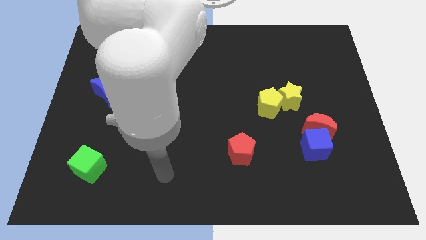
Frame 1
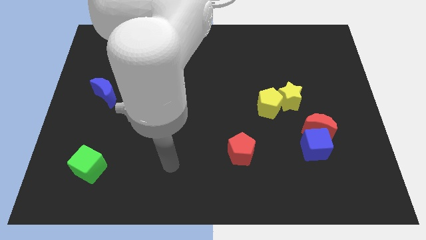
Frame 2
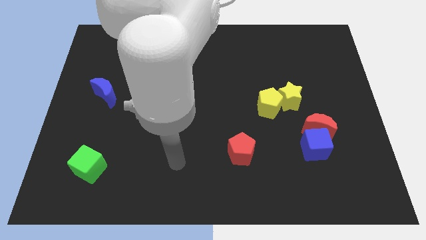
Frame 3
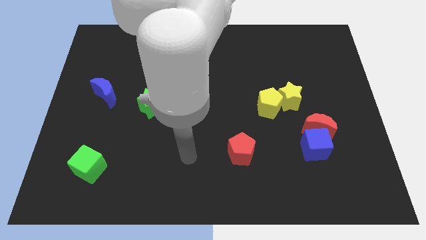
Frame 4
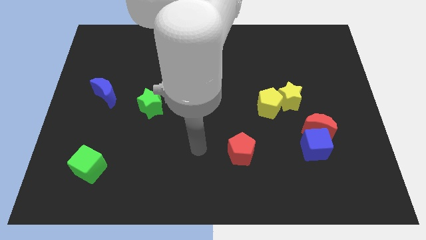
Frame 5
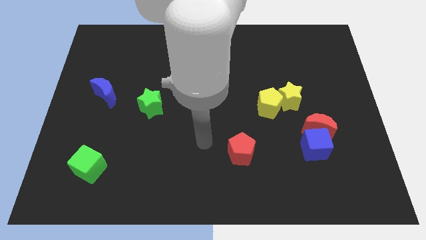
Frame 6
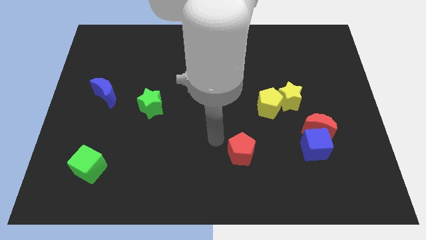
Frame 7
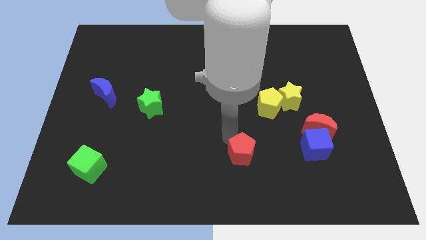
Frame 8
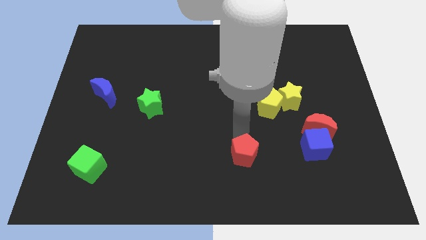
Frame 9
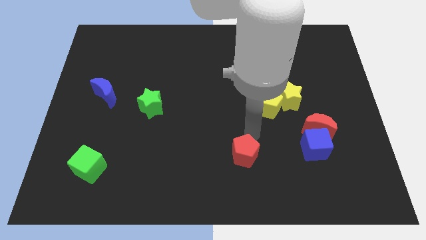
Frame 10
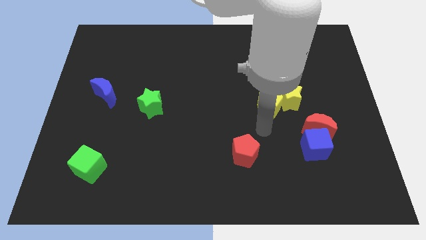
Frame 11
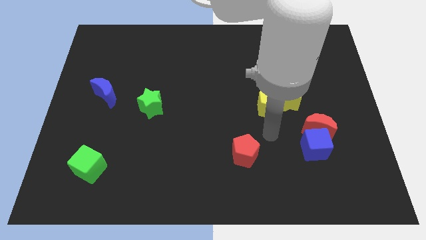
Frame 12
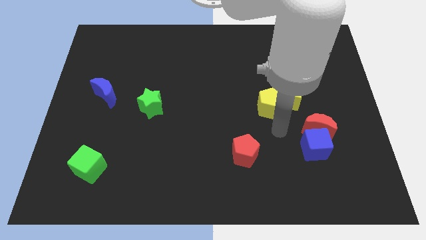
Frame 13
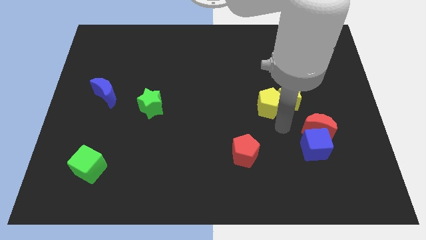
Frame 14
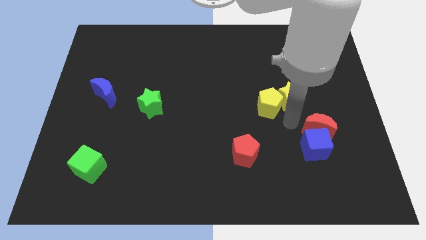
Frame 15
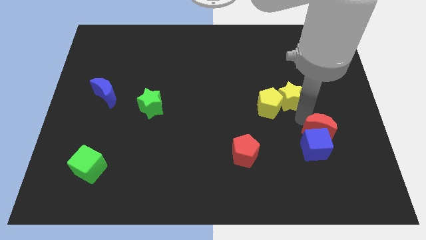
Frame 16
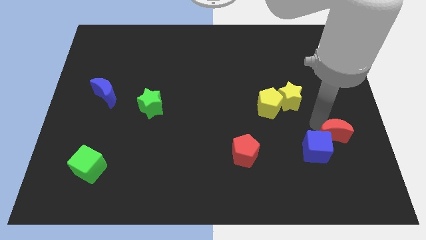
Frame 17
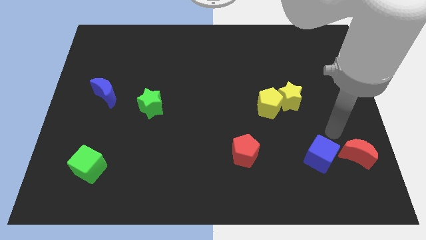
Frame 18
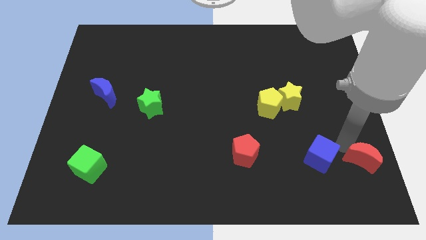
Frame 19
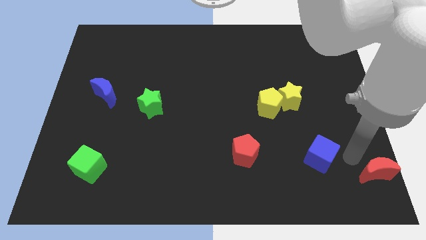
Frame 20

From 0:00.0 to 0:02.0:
move the blue cube away from the red moon

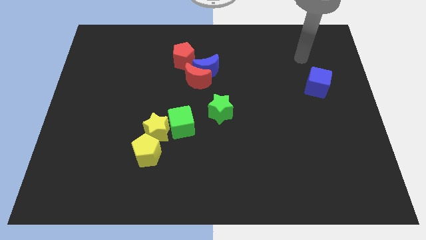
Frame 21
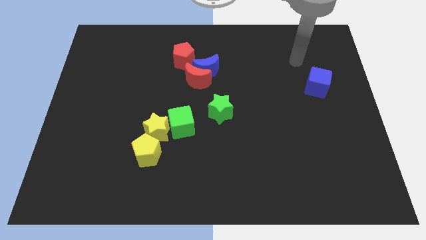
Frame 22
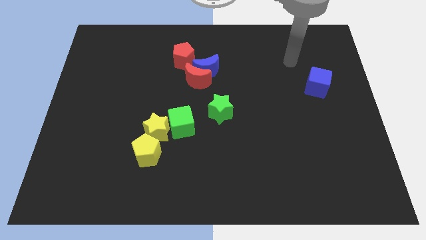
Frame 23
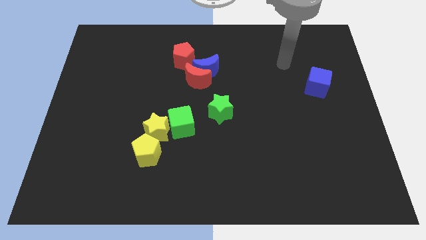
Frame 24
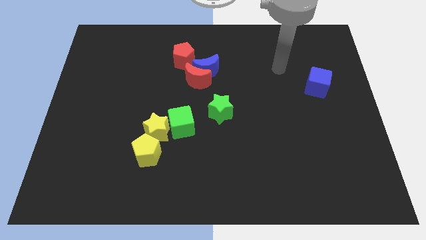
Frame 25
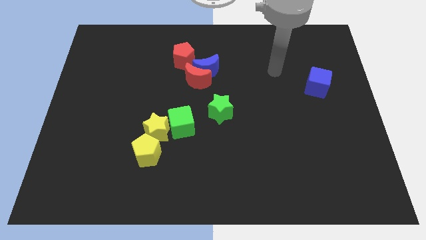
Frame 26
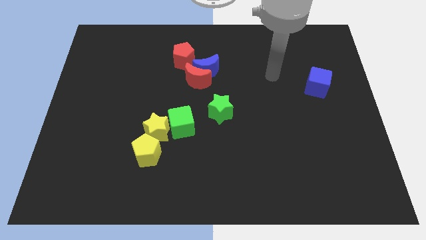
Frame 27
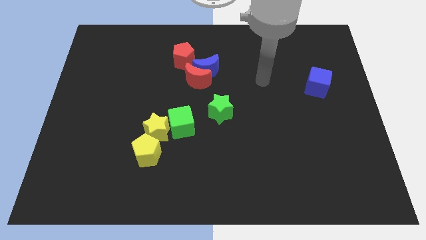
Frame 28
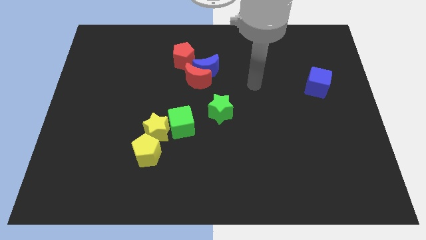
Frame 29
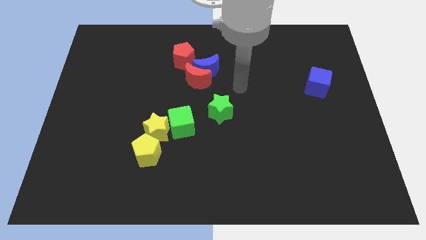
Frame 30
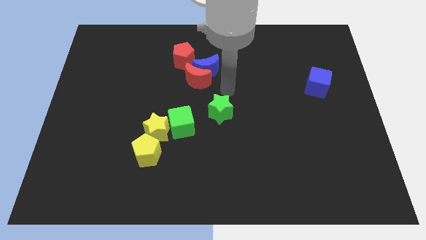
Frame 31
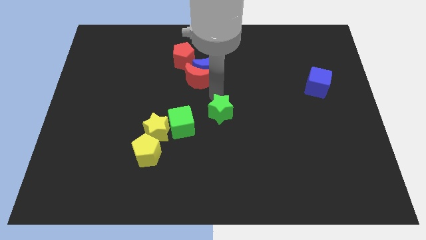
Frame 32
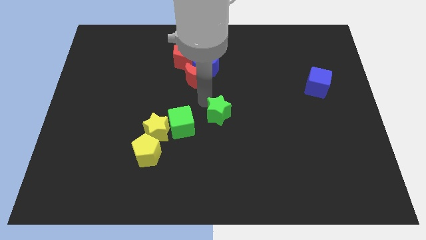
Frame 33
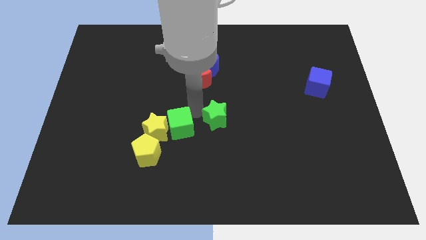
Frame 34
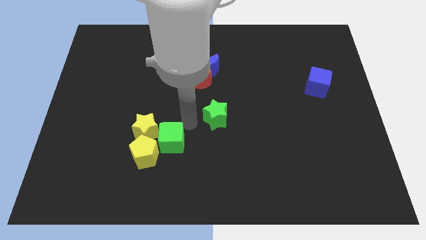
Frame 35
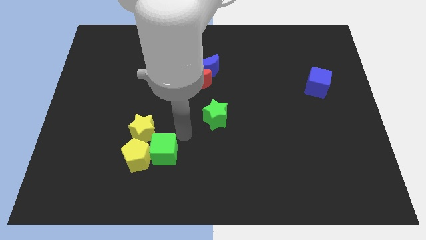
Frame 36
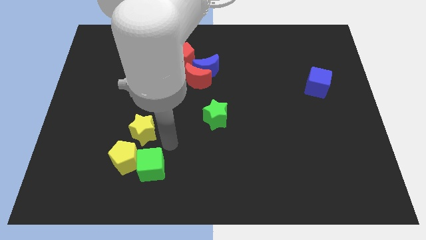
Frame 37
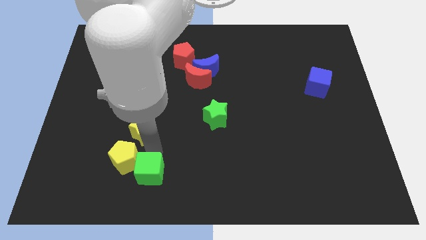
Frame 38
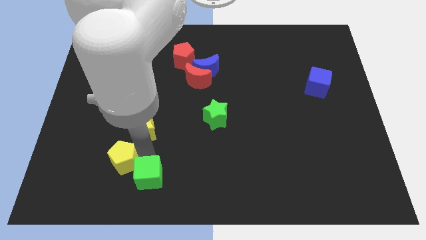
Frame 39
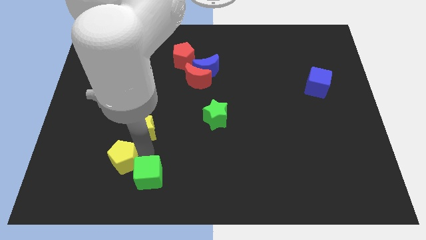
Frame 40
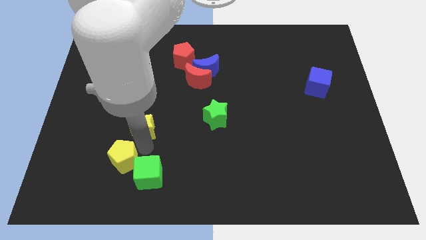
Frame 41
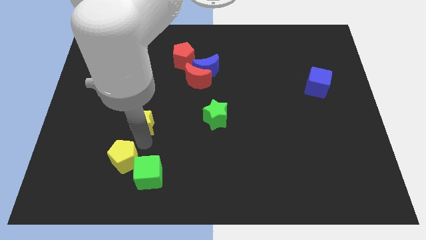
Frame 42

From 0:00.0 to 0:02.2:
pull the yellow star apart from the yellow pentagon and green cube

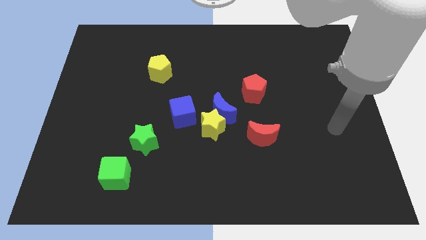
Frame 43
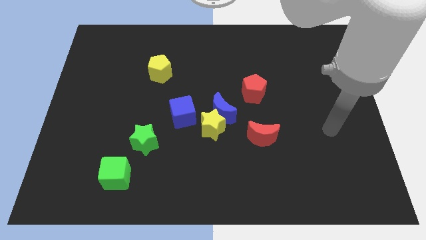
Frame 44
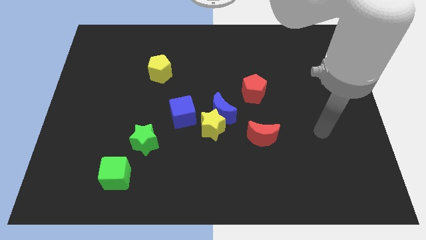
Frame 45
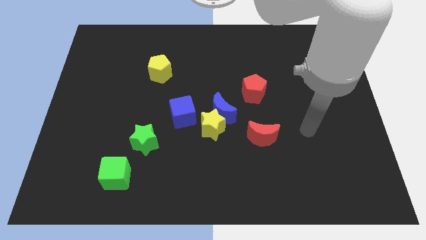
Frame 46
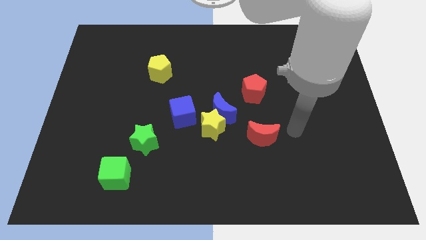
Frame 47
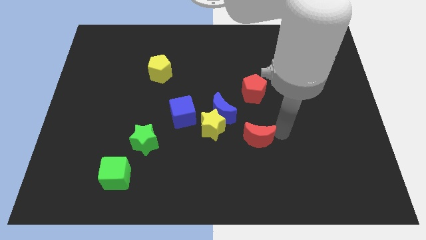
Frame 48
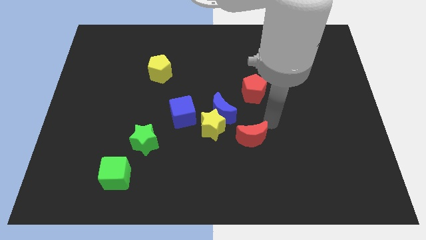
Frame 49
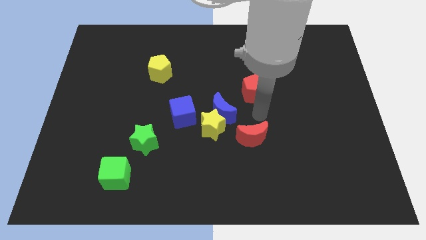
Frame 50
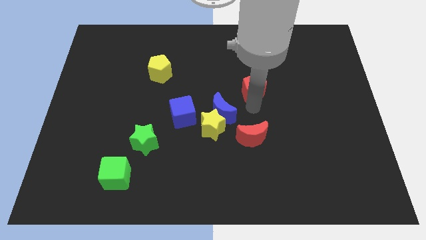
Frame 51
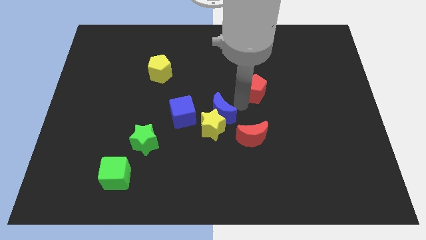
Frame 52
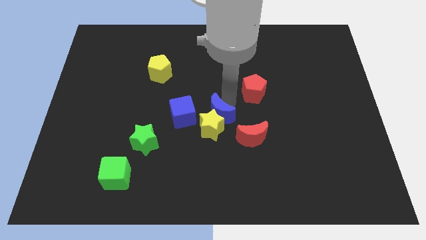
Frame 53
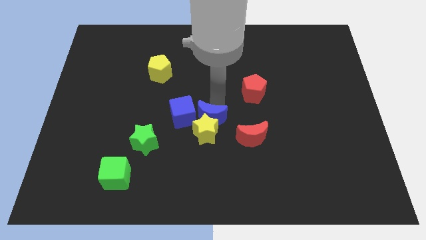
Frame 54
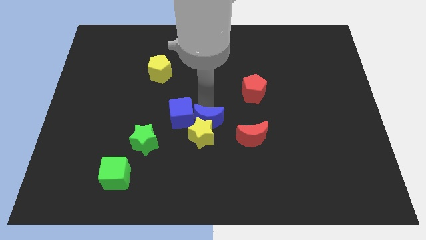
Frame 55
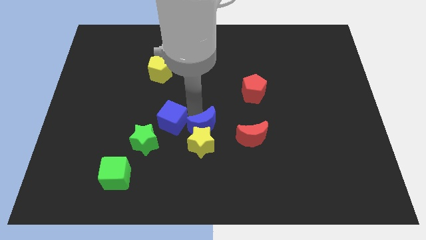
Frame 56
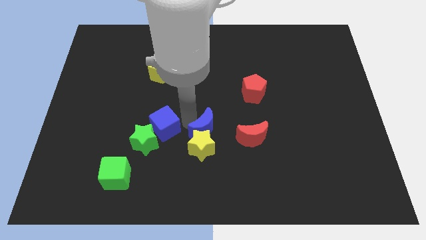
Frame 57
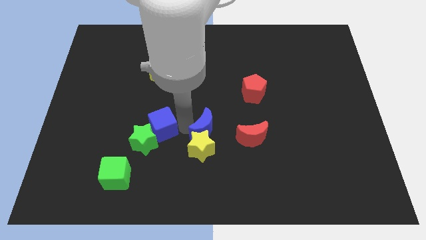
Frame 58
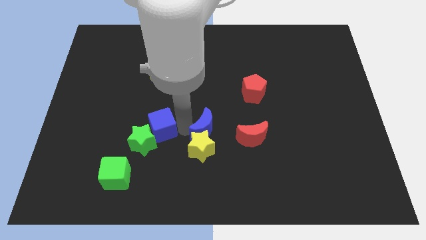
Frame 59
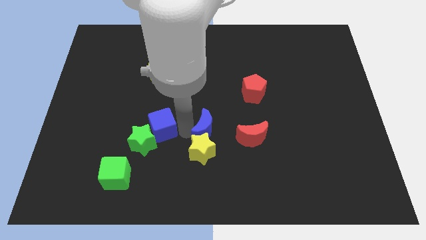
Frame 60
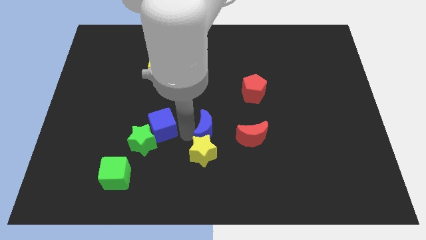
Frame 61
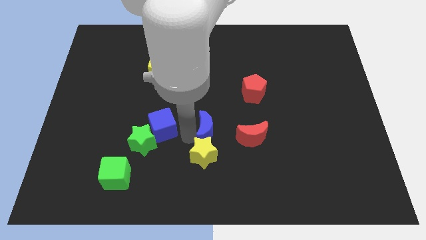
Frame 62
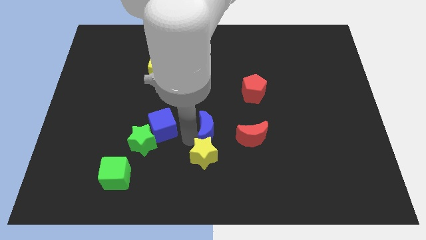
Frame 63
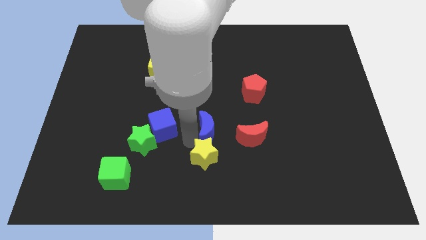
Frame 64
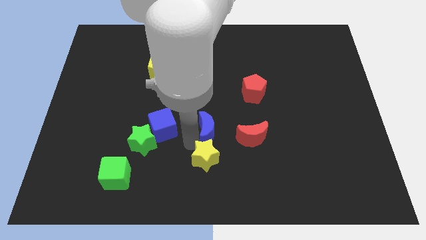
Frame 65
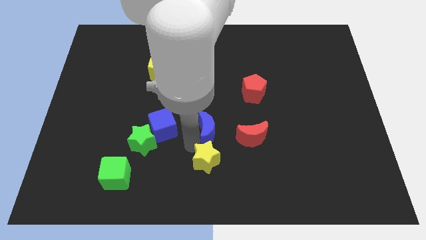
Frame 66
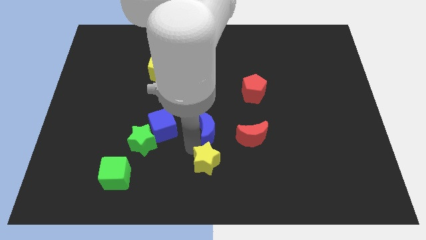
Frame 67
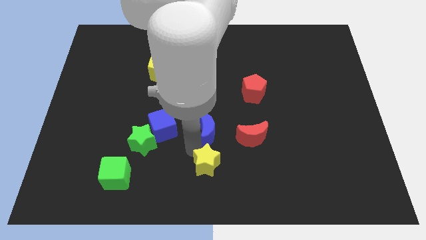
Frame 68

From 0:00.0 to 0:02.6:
move the yellow star away from the blue moon and blue cube

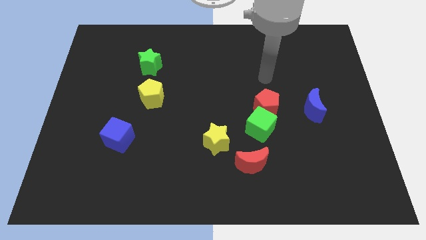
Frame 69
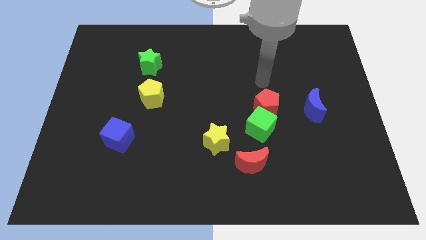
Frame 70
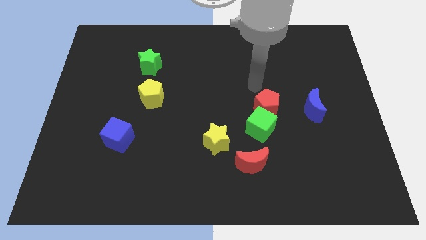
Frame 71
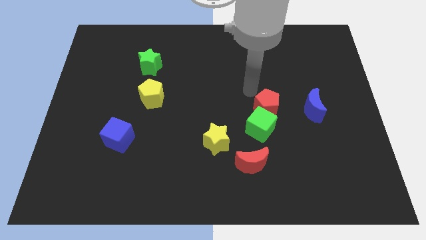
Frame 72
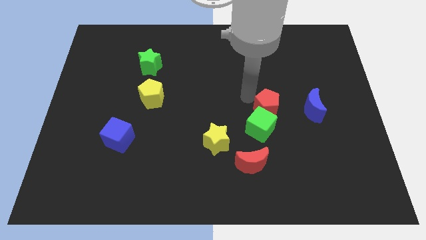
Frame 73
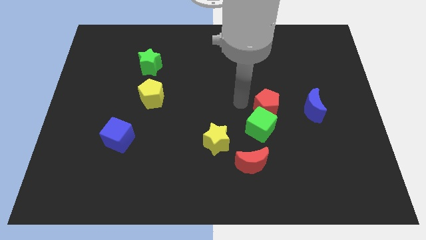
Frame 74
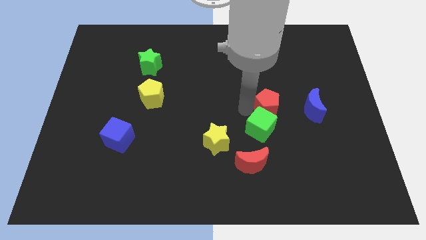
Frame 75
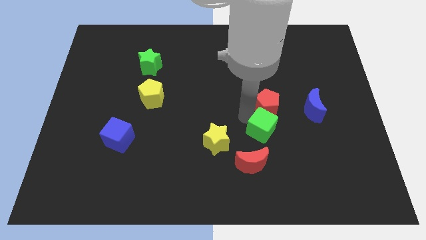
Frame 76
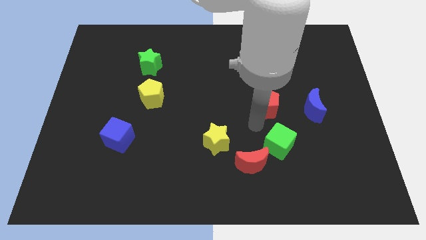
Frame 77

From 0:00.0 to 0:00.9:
pull the red pentagon apart from the green cube

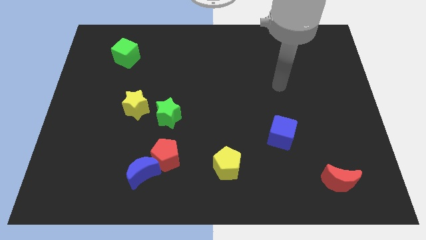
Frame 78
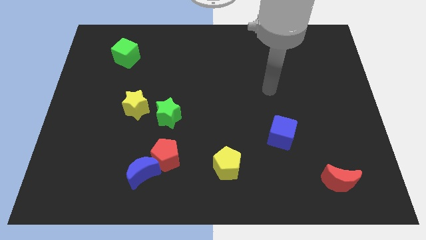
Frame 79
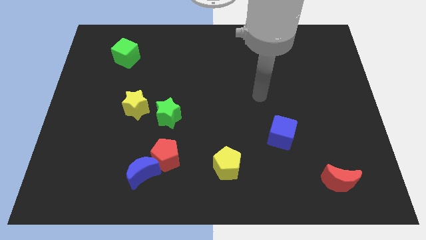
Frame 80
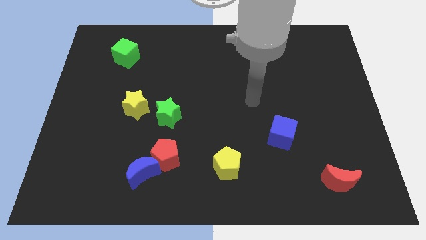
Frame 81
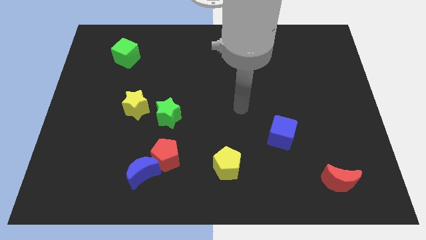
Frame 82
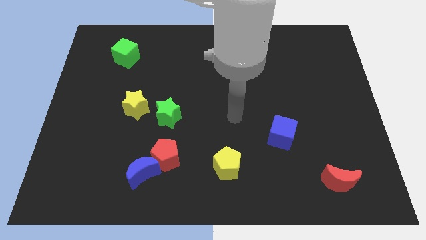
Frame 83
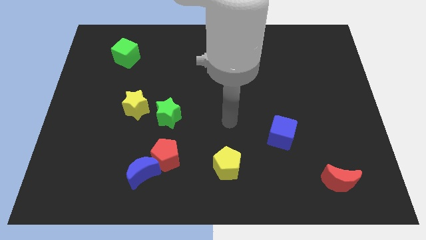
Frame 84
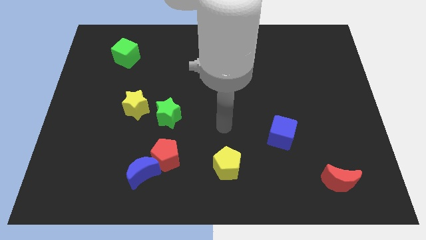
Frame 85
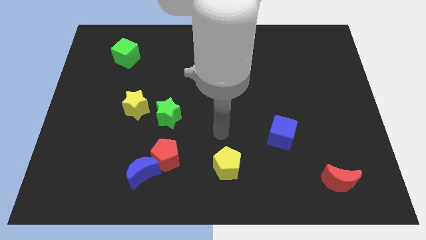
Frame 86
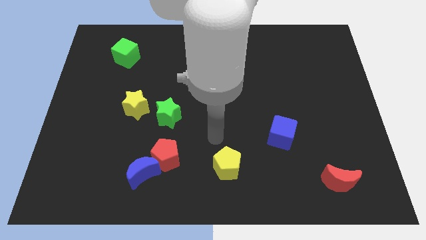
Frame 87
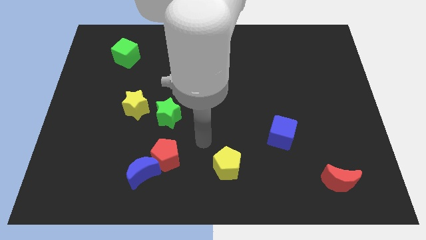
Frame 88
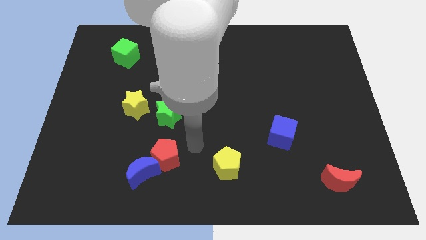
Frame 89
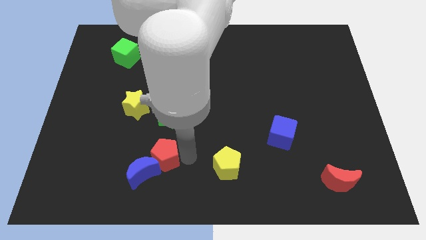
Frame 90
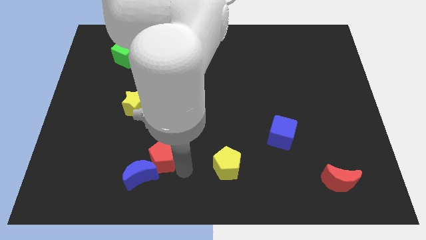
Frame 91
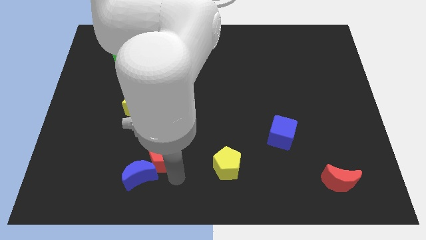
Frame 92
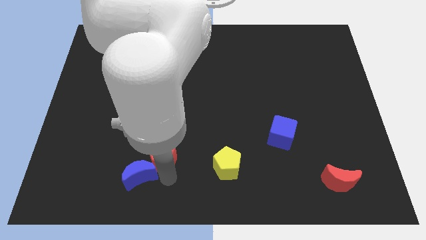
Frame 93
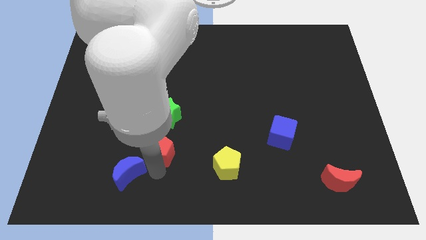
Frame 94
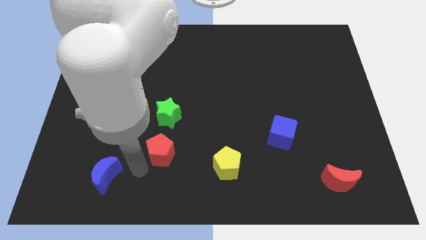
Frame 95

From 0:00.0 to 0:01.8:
pull the red pentagon apart from the blue moon
